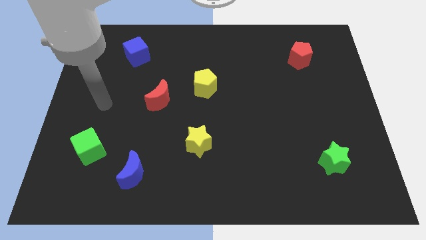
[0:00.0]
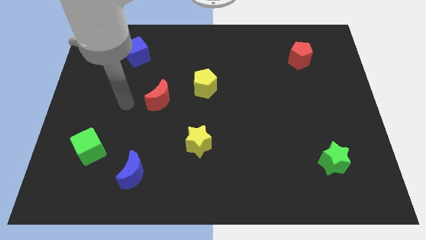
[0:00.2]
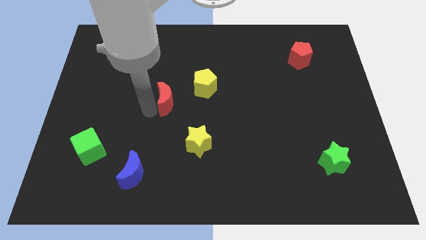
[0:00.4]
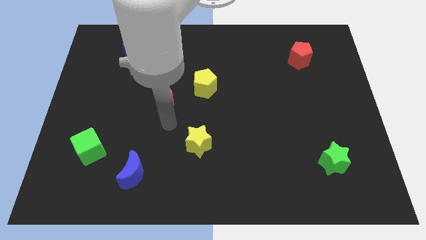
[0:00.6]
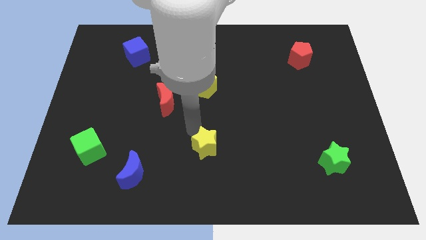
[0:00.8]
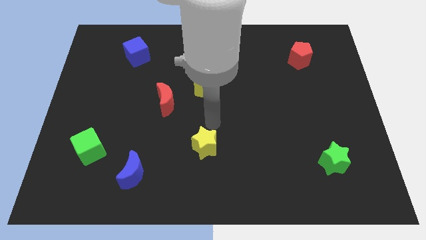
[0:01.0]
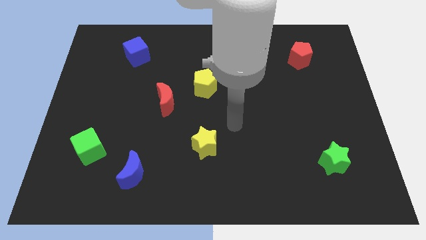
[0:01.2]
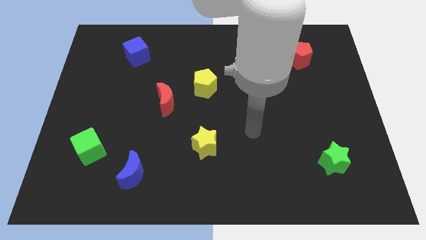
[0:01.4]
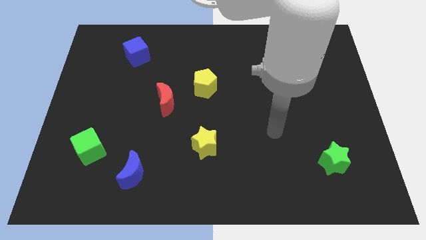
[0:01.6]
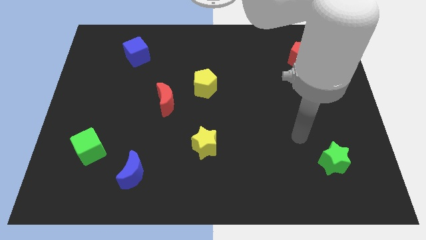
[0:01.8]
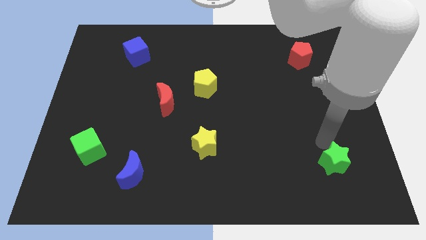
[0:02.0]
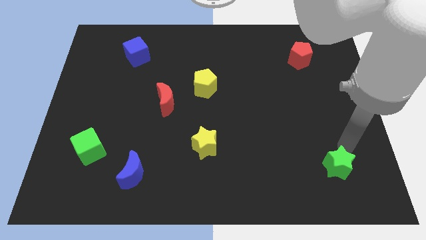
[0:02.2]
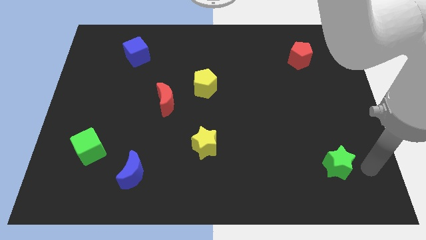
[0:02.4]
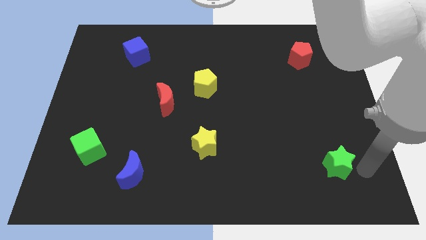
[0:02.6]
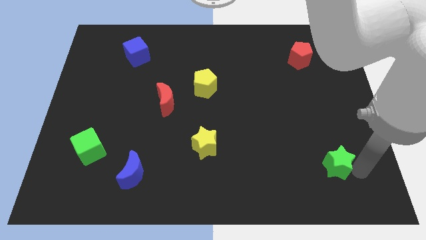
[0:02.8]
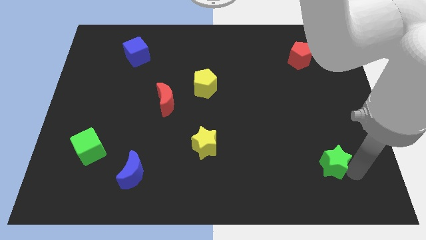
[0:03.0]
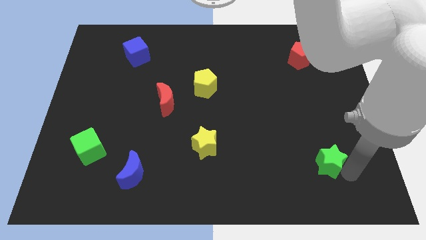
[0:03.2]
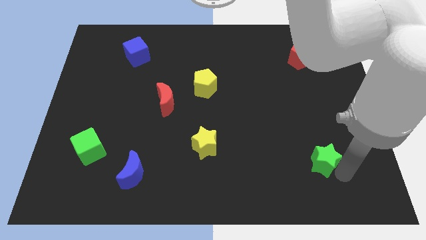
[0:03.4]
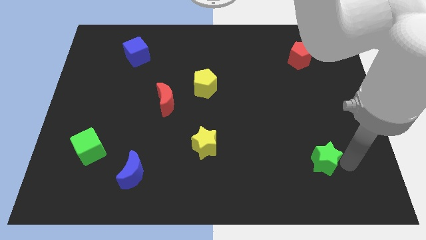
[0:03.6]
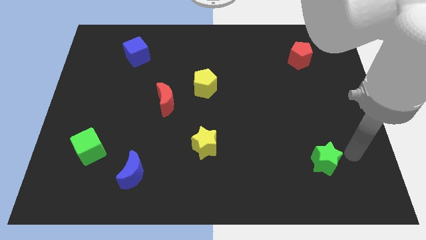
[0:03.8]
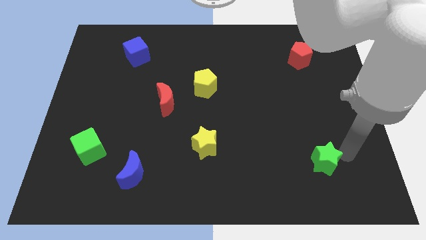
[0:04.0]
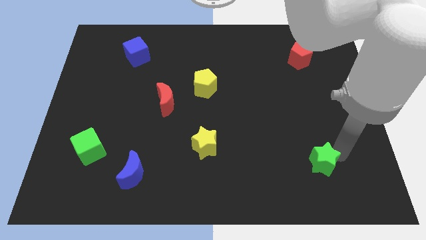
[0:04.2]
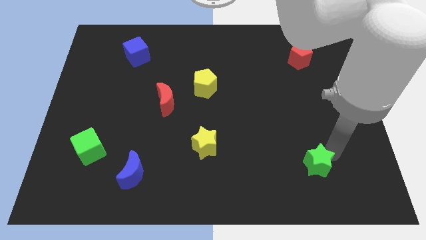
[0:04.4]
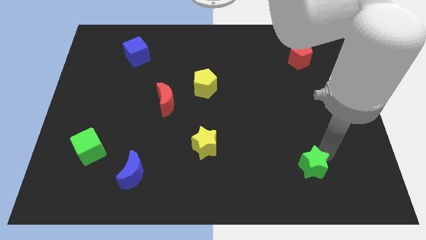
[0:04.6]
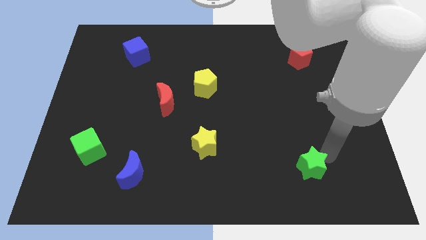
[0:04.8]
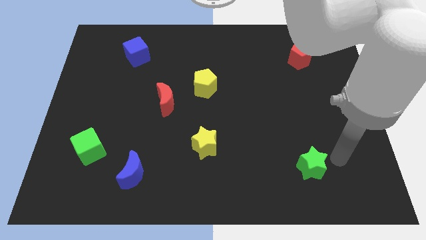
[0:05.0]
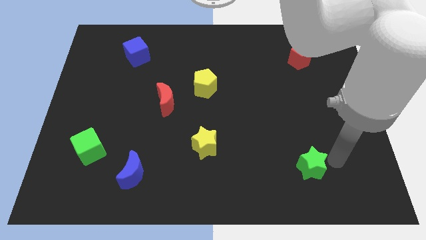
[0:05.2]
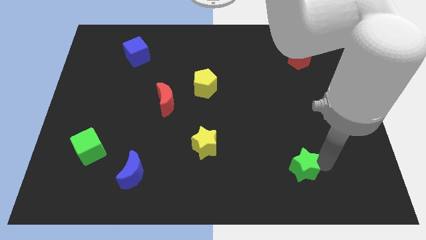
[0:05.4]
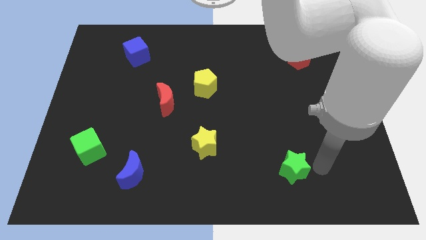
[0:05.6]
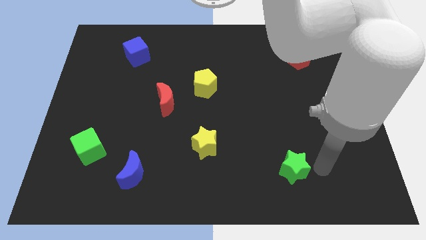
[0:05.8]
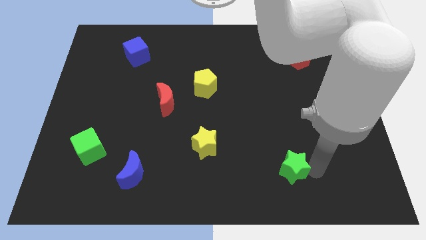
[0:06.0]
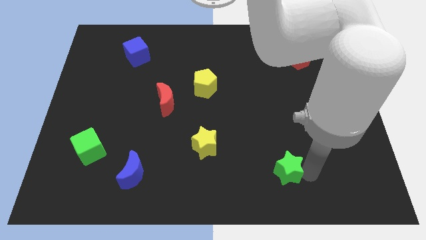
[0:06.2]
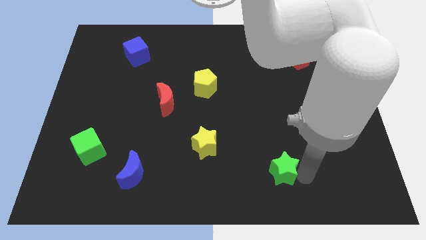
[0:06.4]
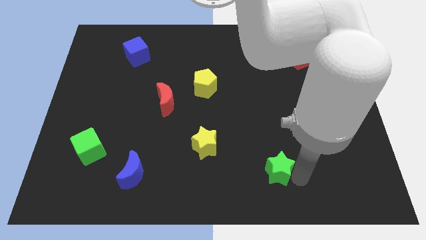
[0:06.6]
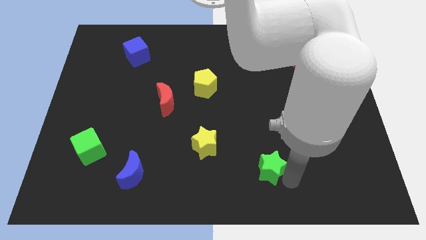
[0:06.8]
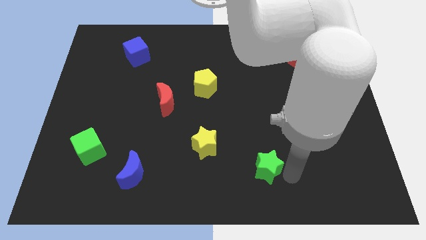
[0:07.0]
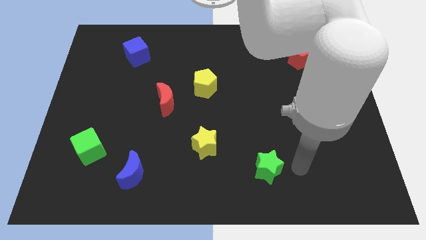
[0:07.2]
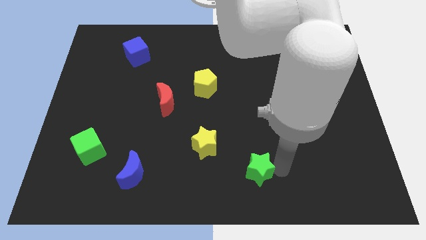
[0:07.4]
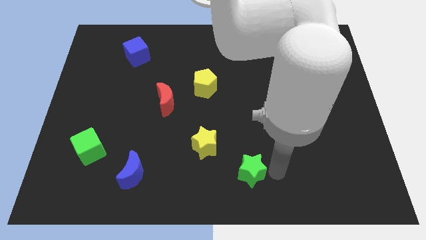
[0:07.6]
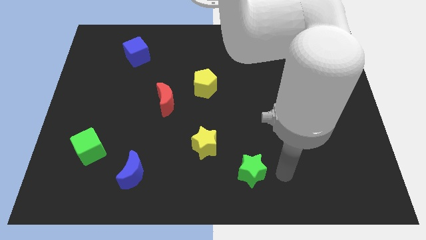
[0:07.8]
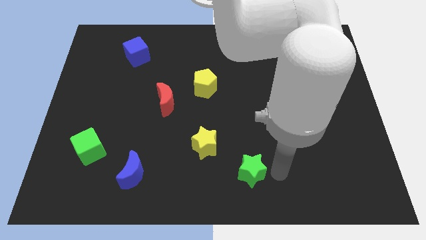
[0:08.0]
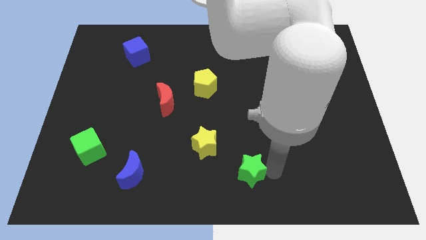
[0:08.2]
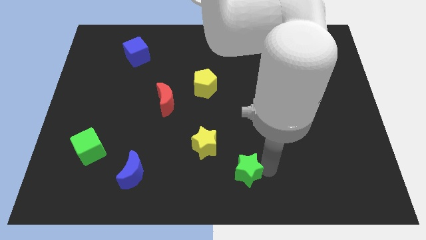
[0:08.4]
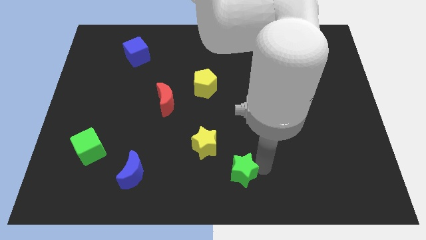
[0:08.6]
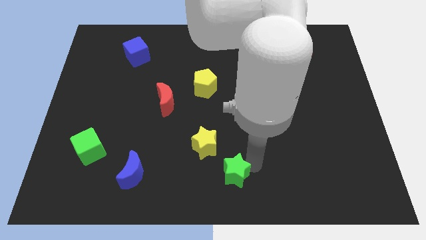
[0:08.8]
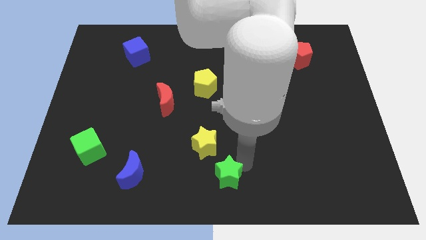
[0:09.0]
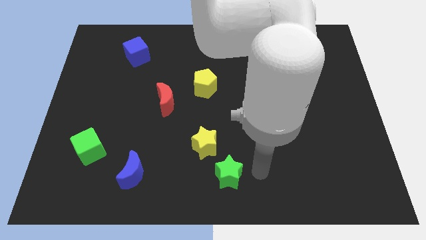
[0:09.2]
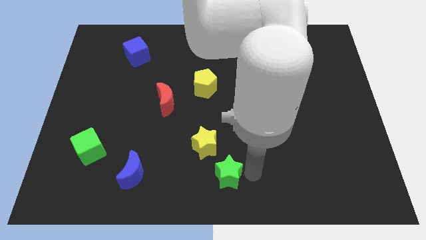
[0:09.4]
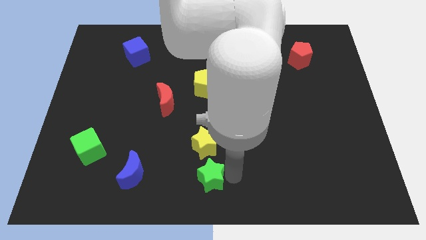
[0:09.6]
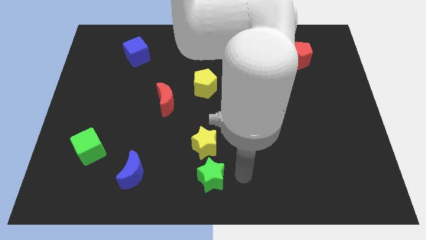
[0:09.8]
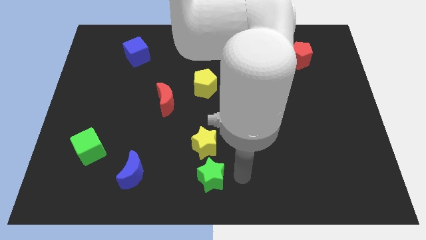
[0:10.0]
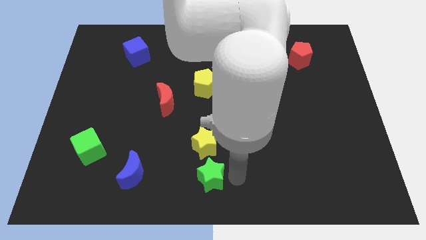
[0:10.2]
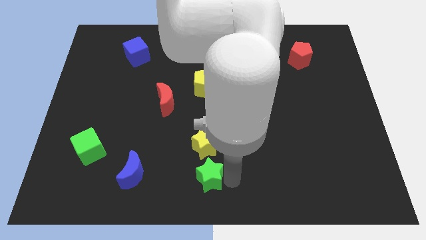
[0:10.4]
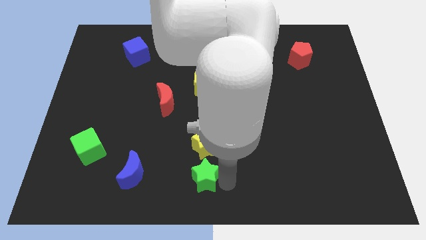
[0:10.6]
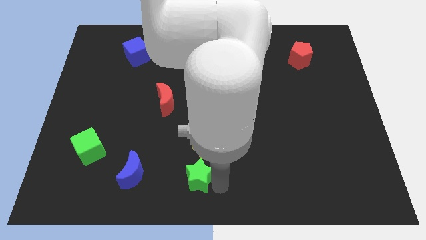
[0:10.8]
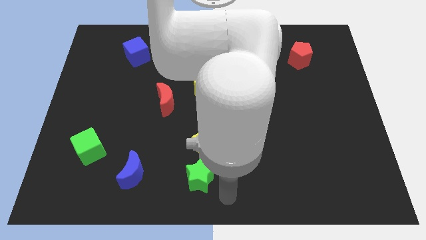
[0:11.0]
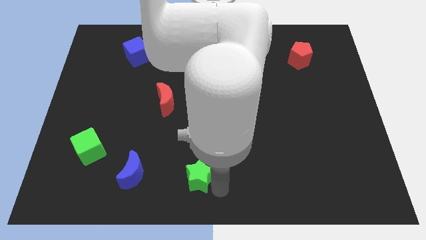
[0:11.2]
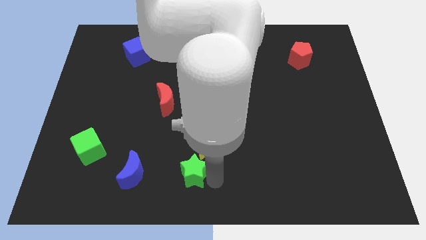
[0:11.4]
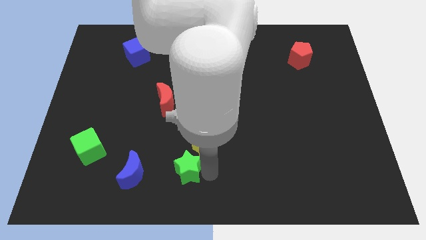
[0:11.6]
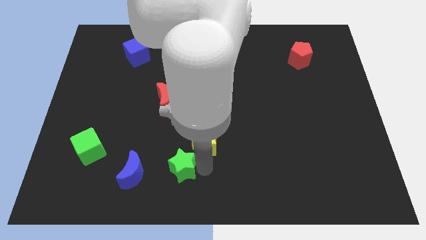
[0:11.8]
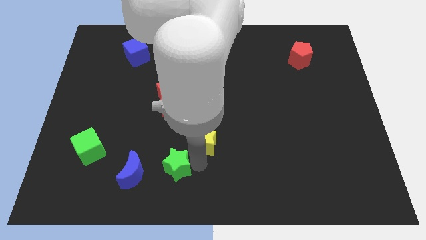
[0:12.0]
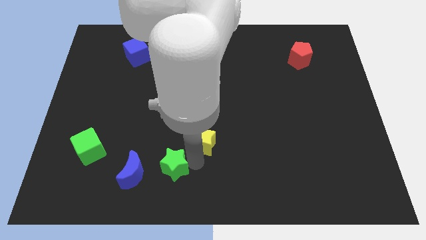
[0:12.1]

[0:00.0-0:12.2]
push the green star to the top right side of the blue moon

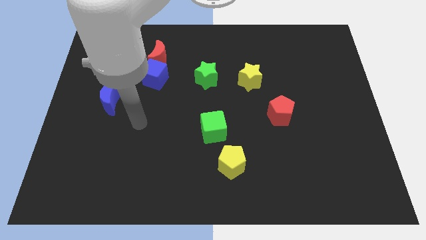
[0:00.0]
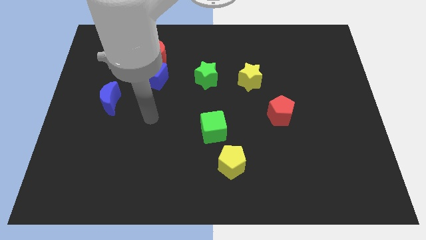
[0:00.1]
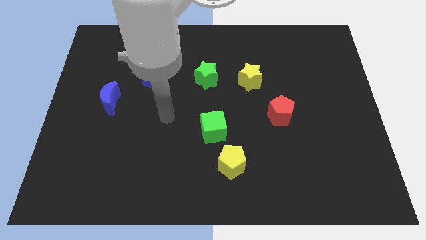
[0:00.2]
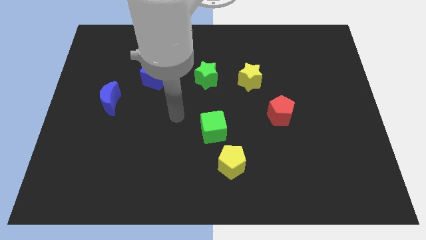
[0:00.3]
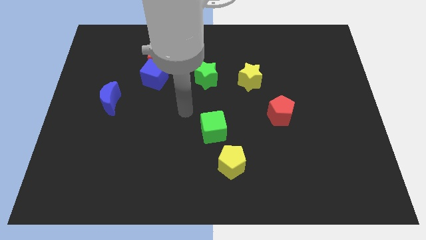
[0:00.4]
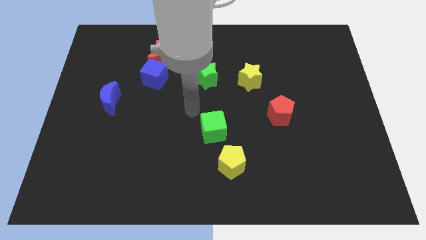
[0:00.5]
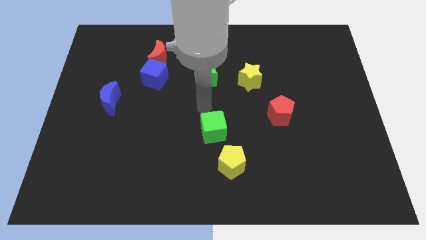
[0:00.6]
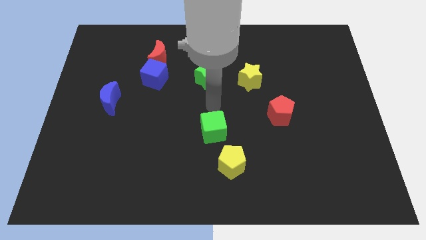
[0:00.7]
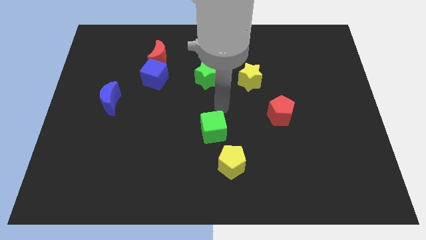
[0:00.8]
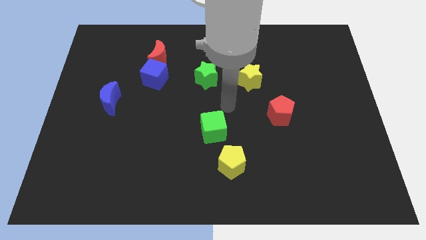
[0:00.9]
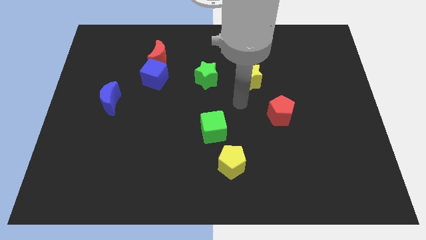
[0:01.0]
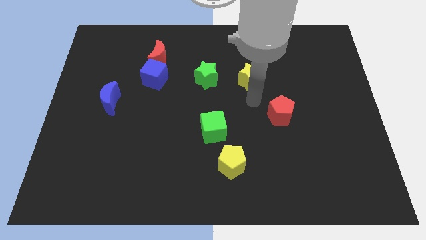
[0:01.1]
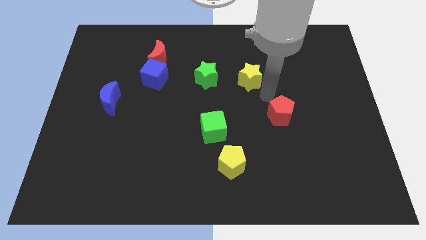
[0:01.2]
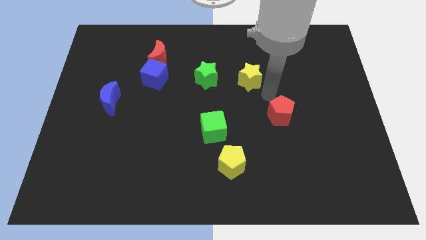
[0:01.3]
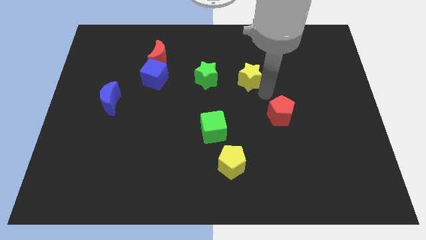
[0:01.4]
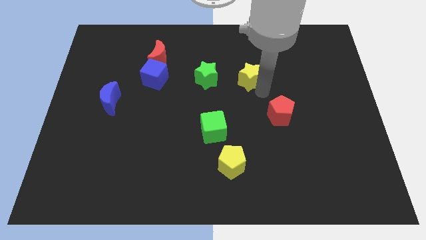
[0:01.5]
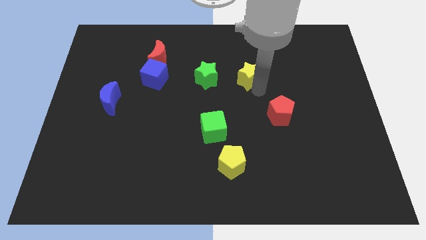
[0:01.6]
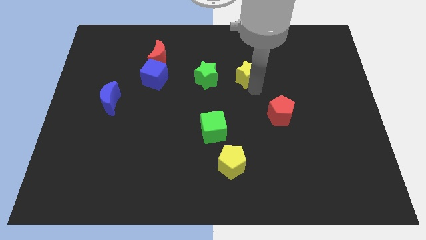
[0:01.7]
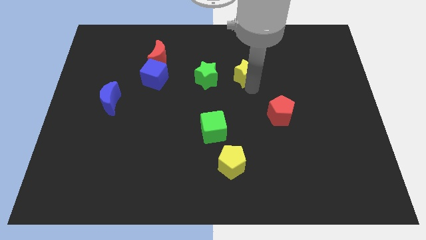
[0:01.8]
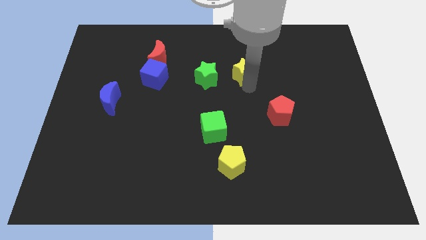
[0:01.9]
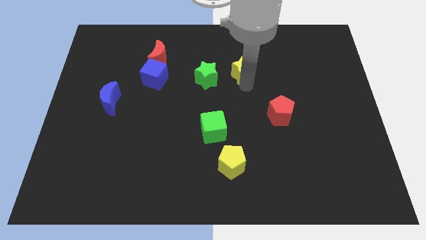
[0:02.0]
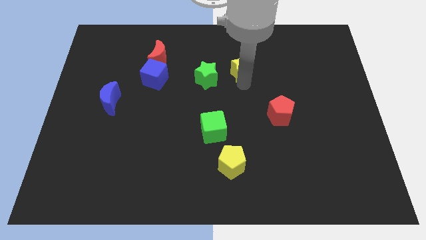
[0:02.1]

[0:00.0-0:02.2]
push the yellow star to the top right side of the green star
